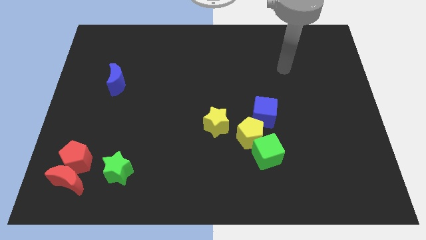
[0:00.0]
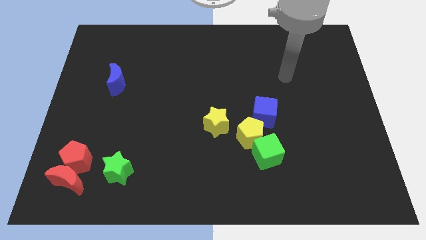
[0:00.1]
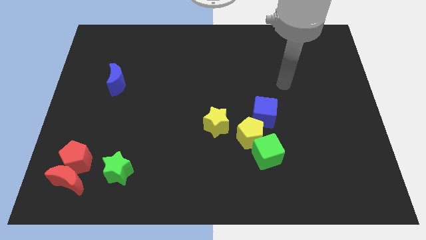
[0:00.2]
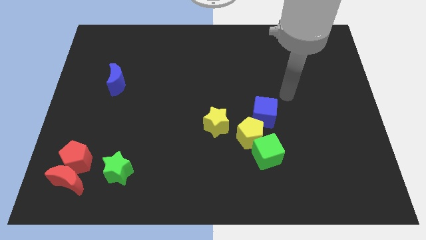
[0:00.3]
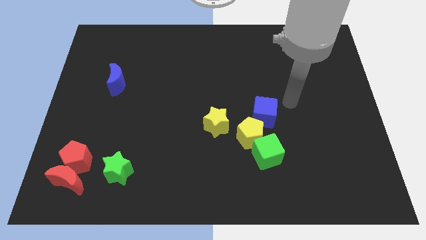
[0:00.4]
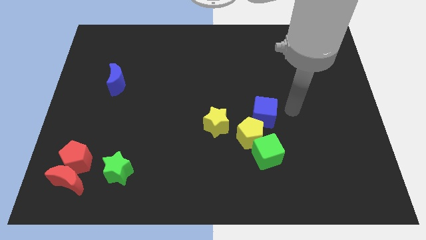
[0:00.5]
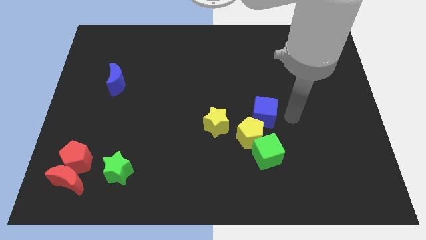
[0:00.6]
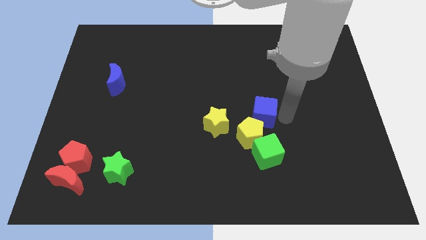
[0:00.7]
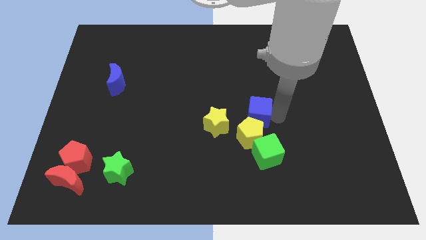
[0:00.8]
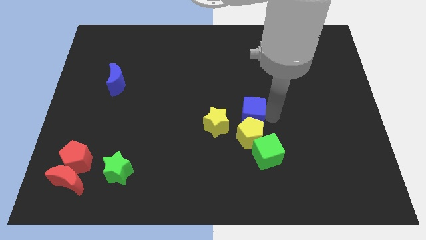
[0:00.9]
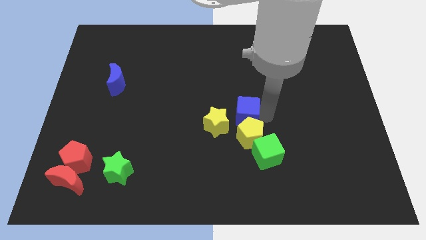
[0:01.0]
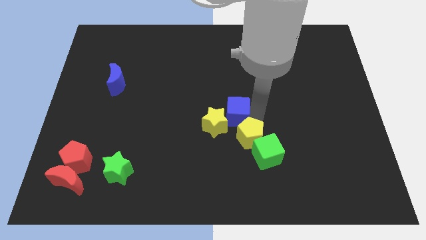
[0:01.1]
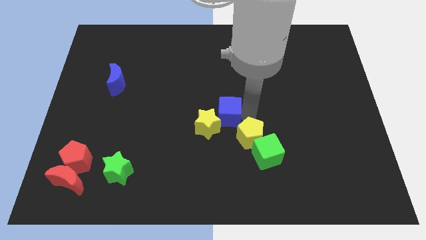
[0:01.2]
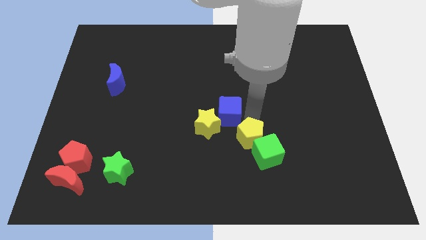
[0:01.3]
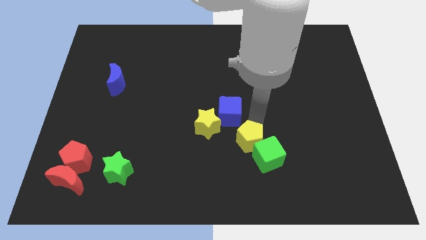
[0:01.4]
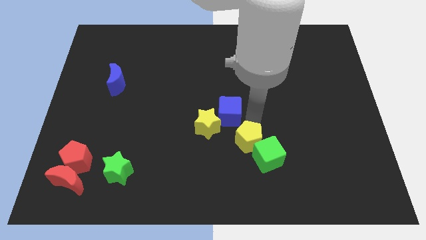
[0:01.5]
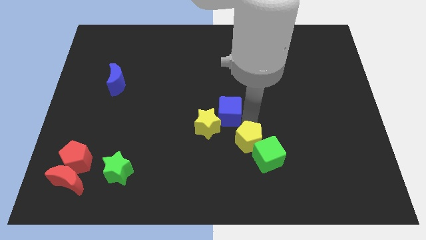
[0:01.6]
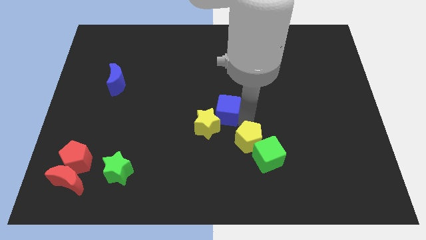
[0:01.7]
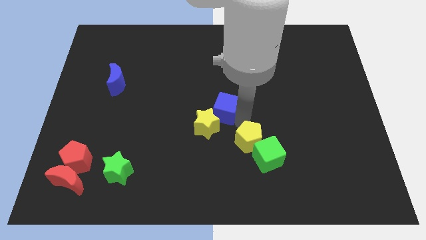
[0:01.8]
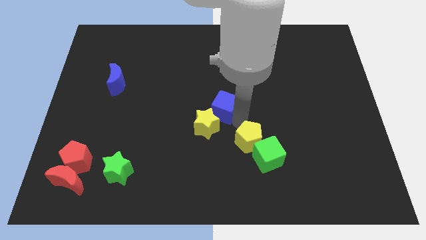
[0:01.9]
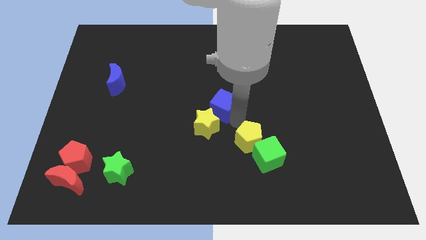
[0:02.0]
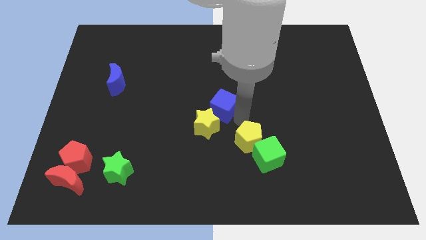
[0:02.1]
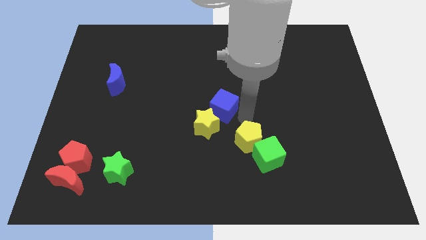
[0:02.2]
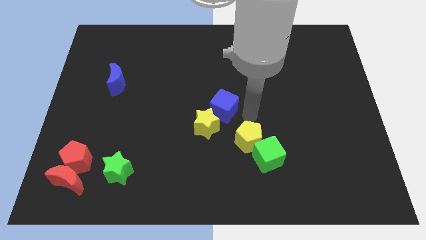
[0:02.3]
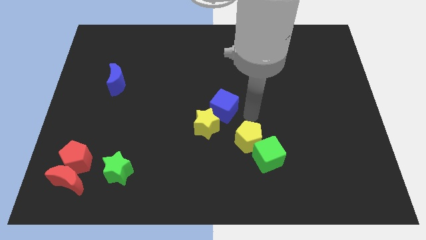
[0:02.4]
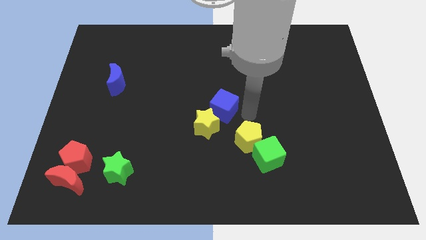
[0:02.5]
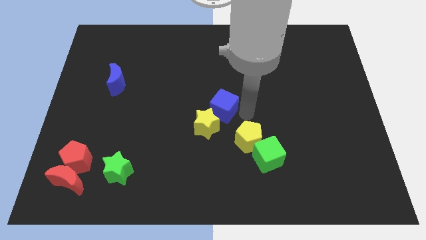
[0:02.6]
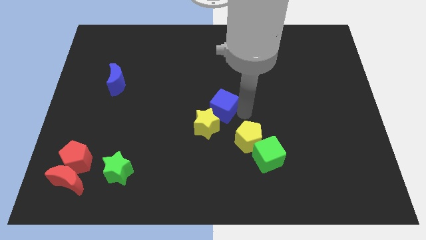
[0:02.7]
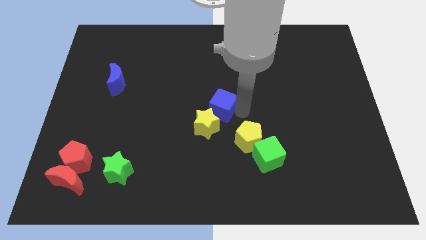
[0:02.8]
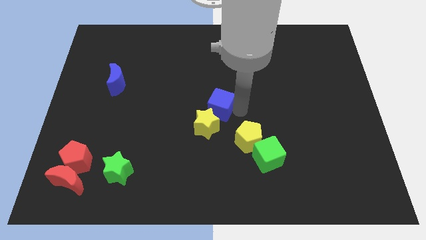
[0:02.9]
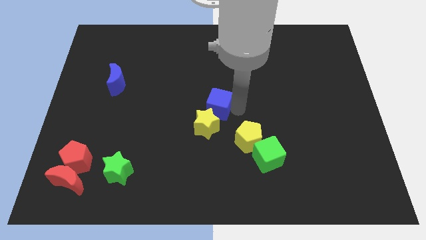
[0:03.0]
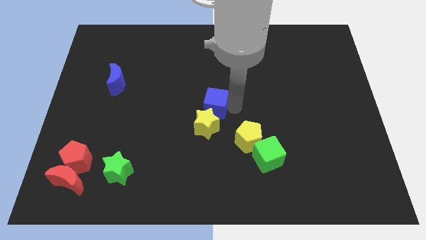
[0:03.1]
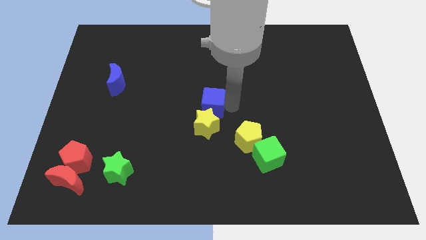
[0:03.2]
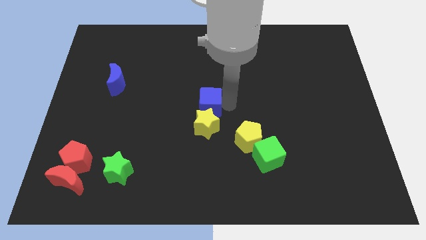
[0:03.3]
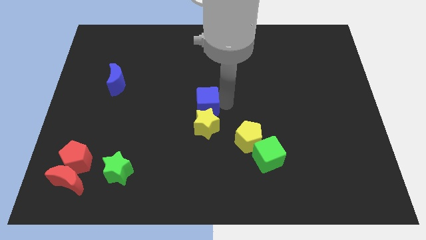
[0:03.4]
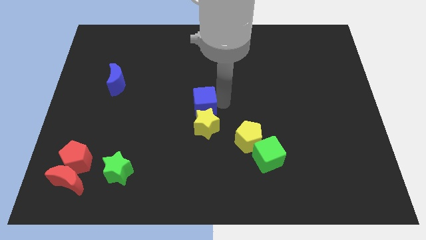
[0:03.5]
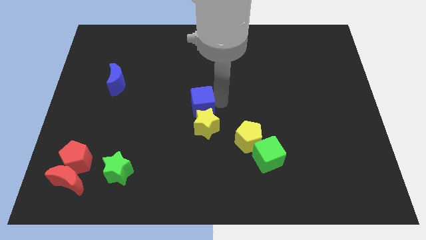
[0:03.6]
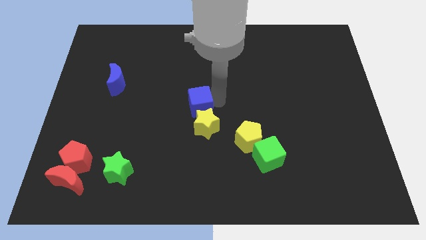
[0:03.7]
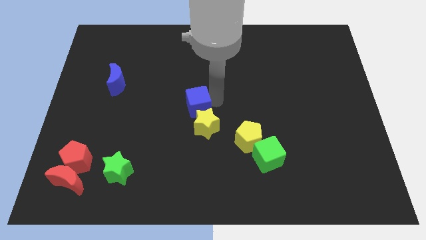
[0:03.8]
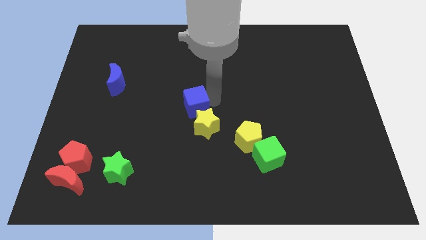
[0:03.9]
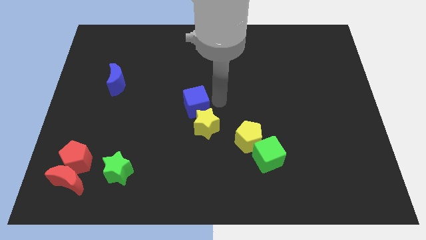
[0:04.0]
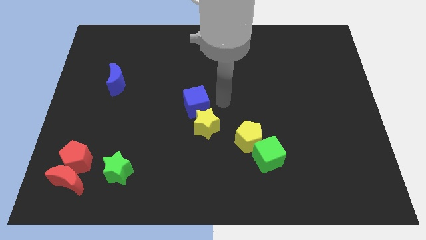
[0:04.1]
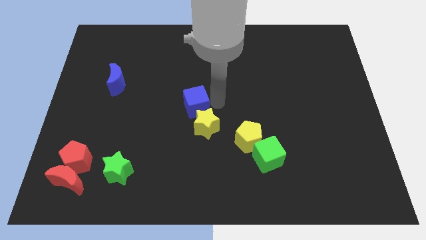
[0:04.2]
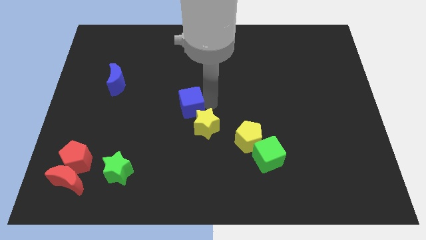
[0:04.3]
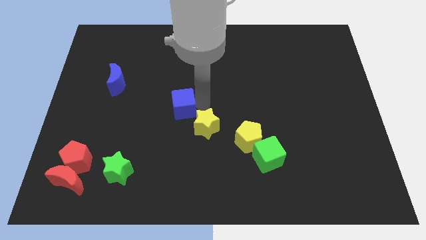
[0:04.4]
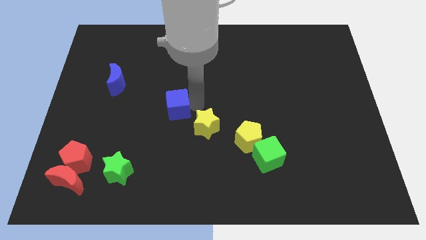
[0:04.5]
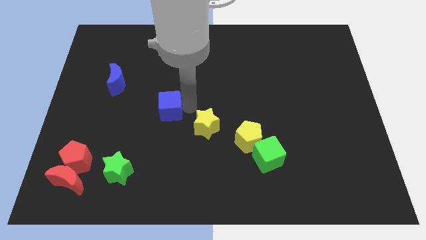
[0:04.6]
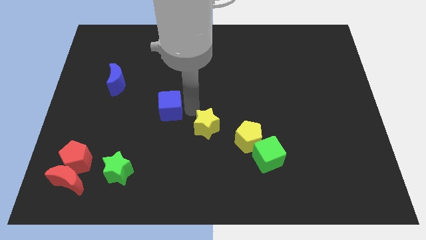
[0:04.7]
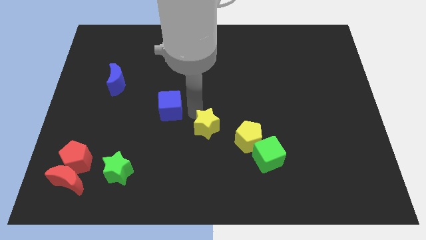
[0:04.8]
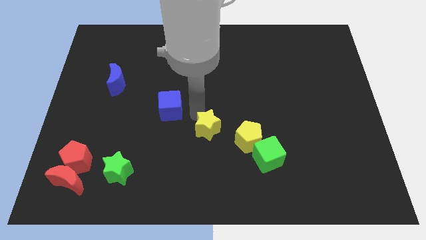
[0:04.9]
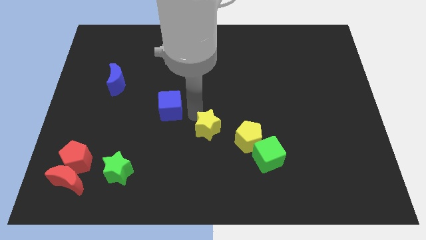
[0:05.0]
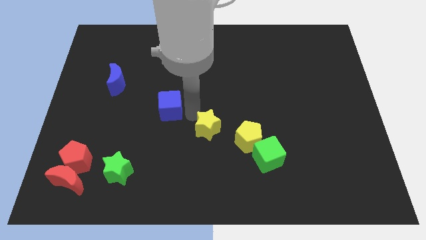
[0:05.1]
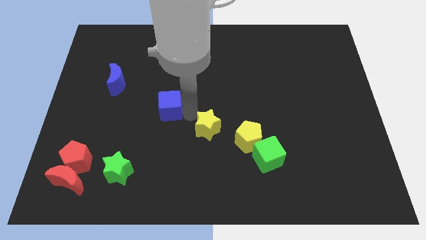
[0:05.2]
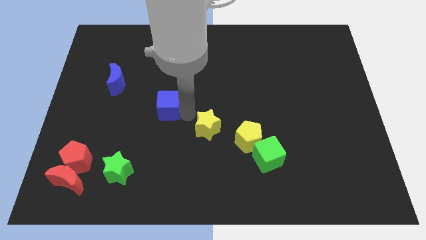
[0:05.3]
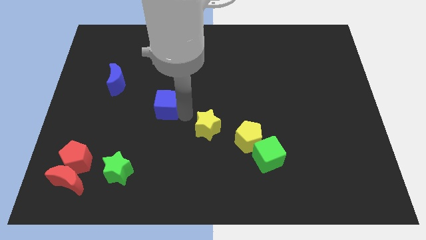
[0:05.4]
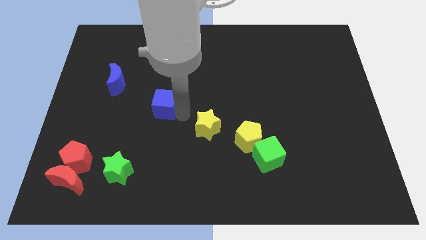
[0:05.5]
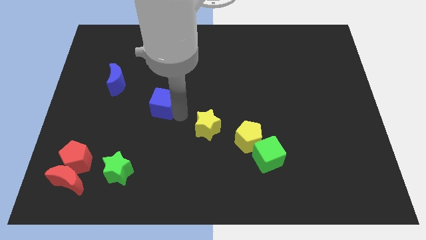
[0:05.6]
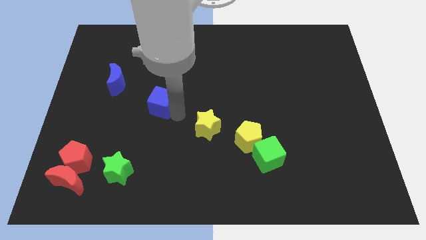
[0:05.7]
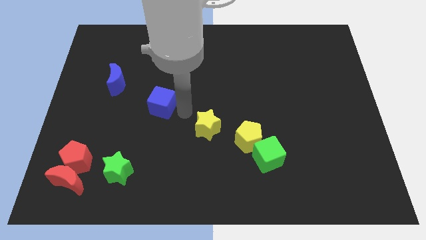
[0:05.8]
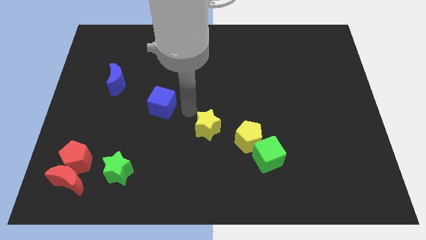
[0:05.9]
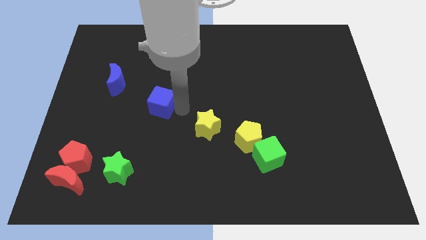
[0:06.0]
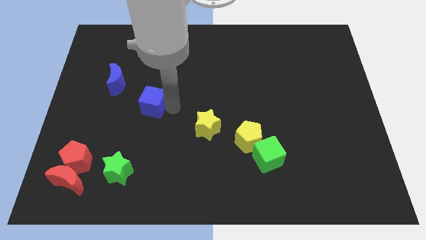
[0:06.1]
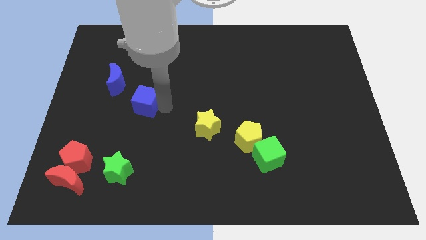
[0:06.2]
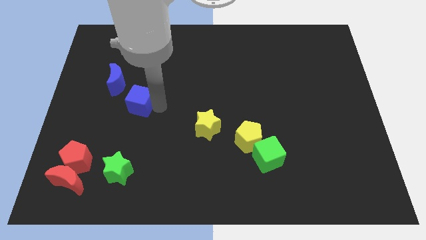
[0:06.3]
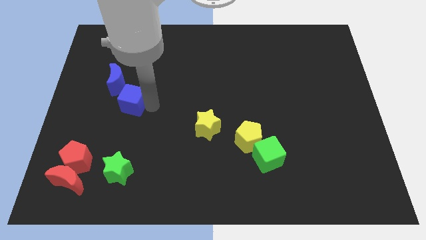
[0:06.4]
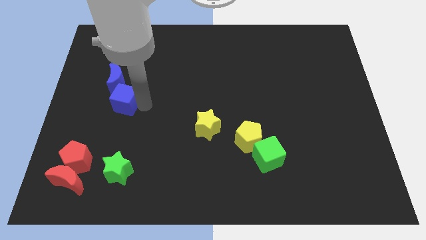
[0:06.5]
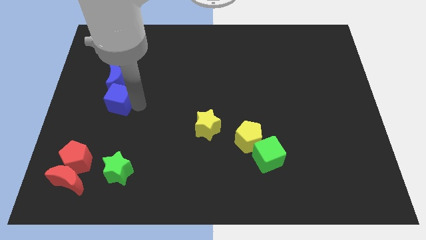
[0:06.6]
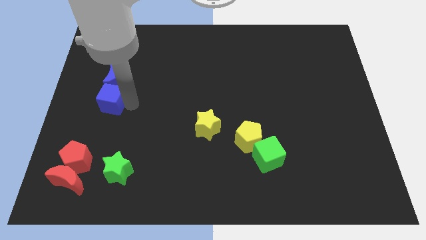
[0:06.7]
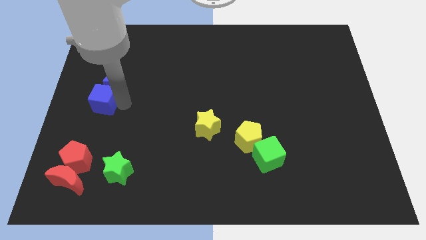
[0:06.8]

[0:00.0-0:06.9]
push the blue cube to the left side of the board
